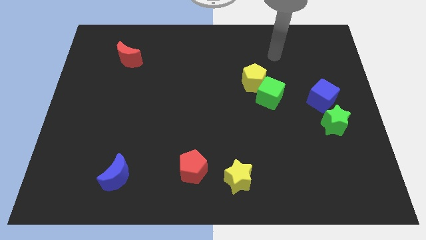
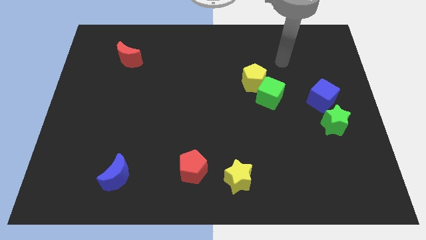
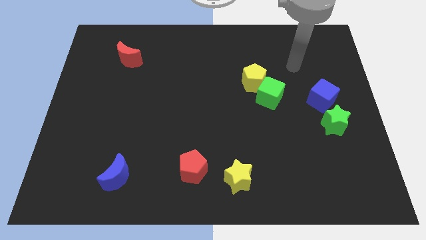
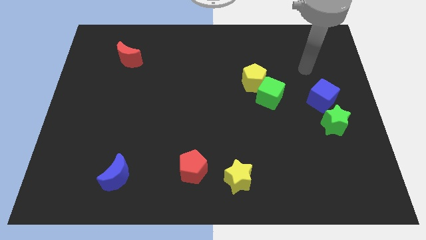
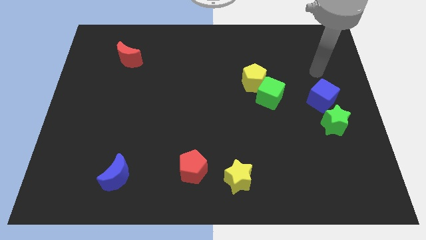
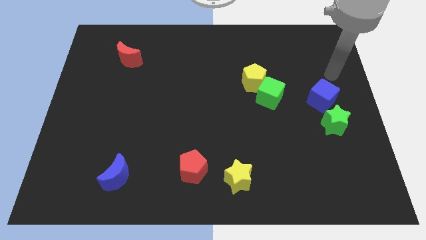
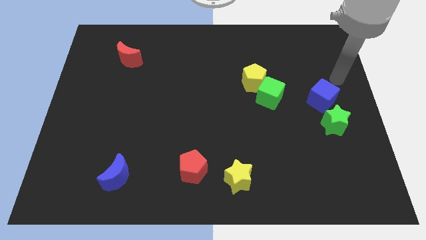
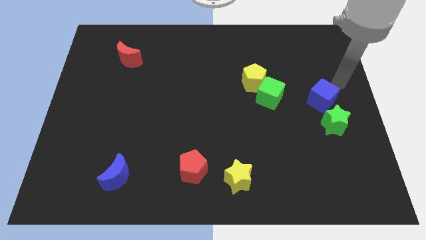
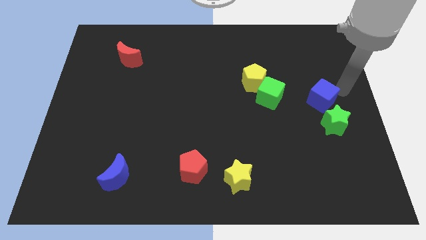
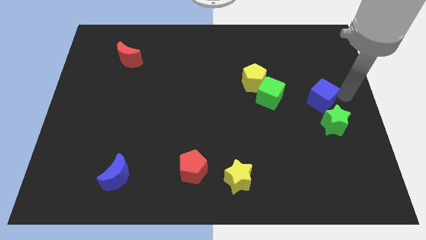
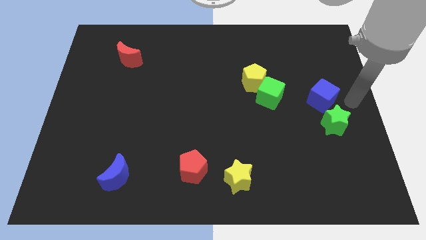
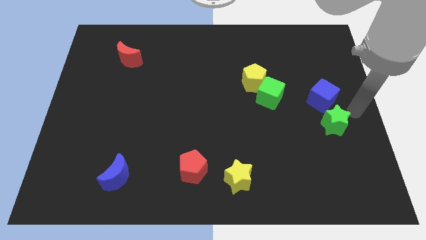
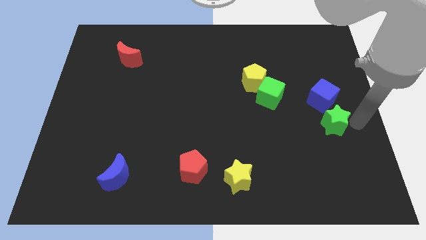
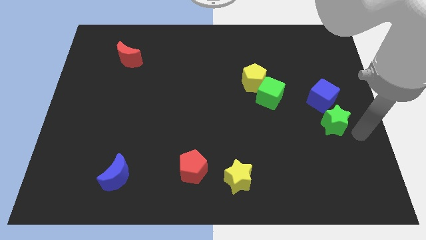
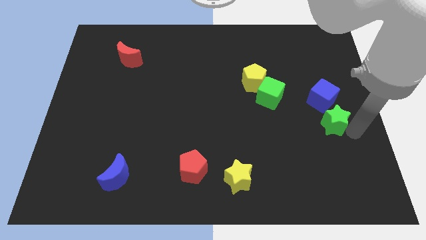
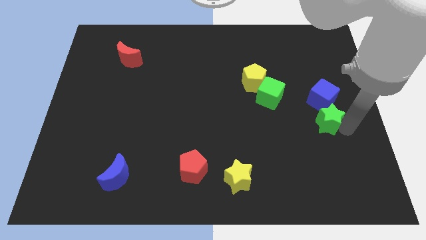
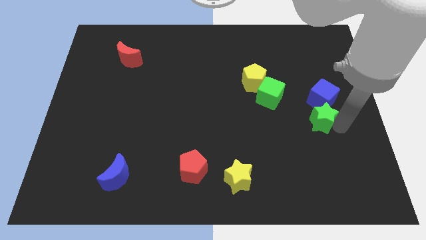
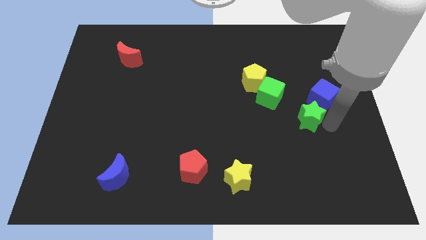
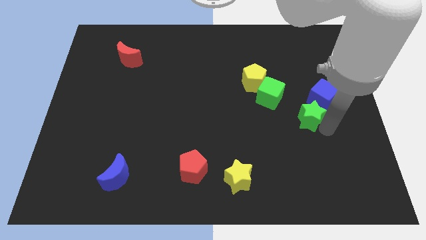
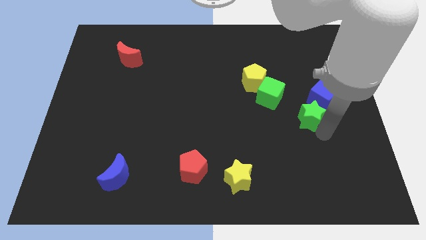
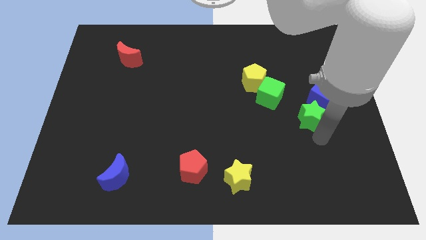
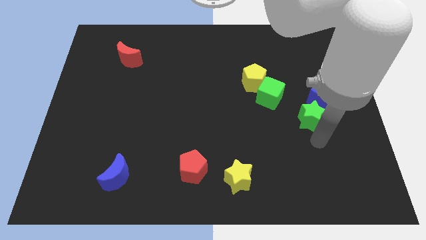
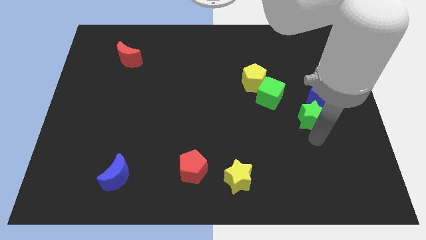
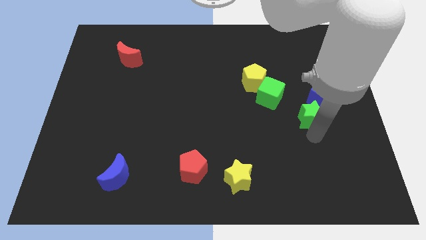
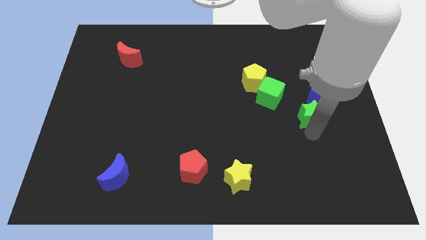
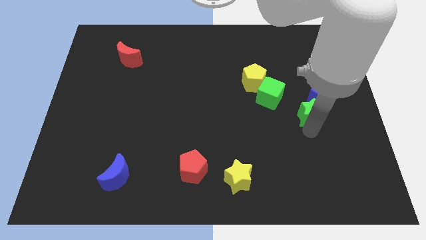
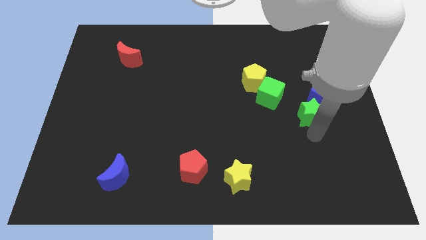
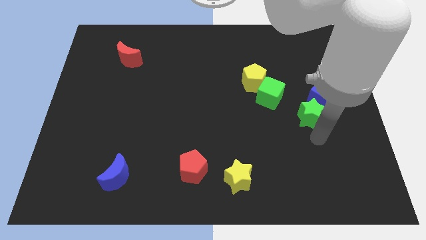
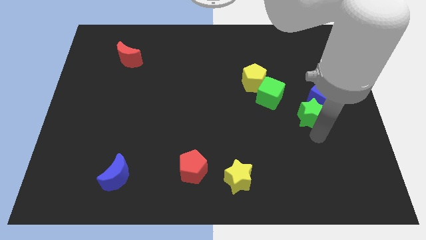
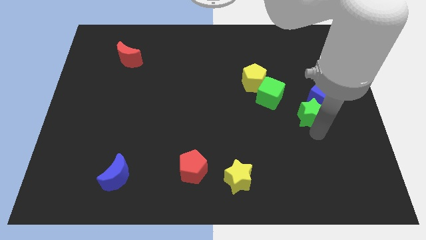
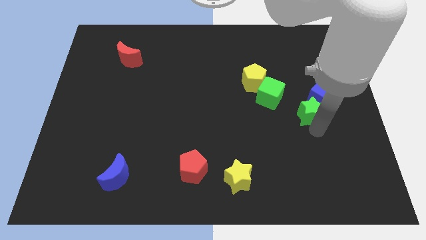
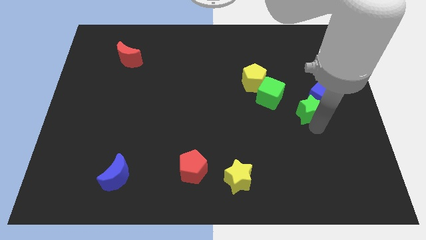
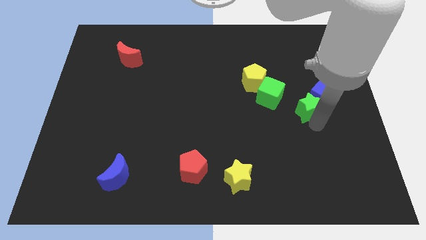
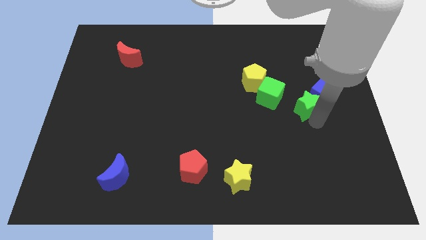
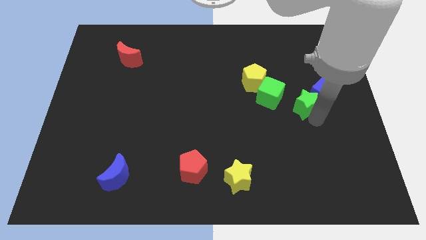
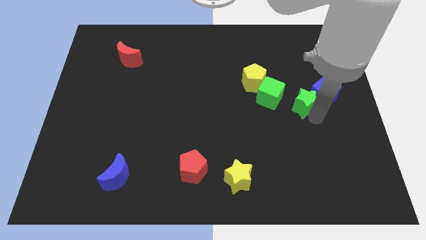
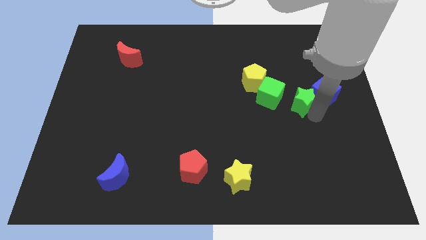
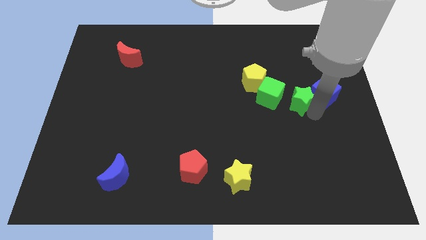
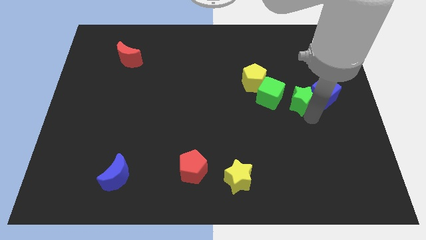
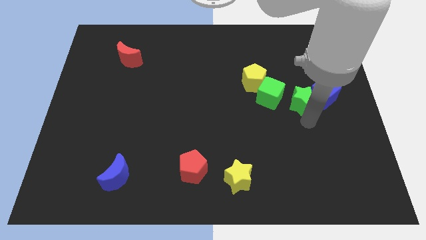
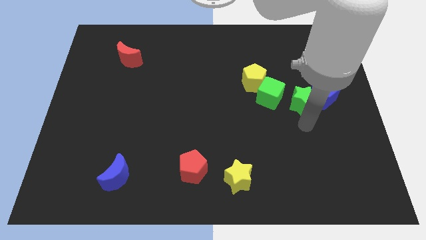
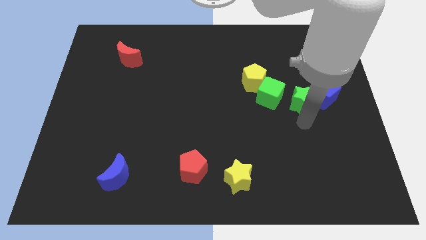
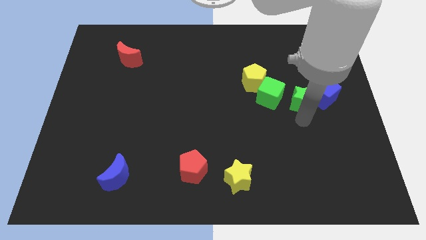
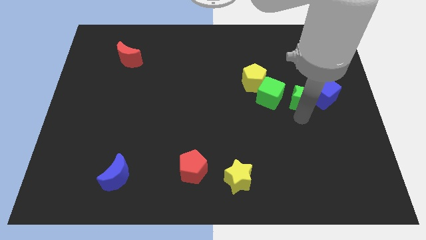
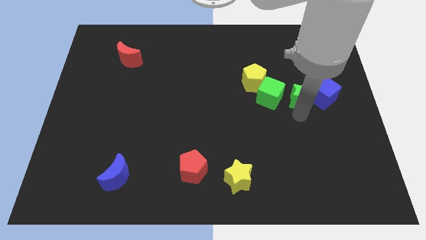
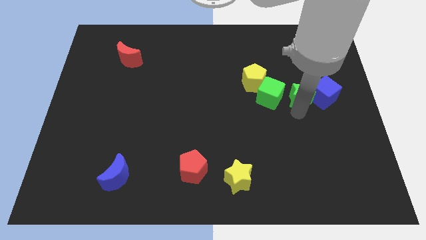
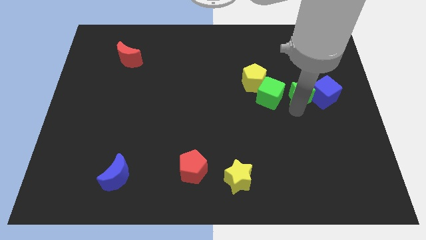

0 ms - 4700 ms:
put the green star to the right side of the yellow pentagon

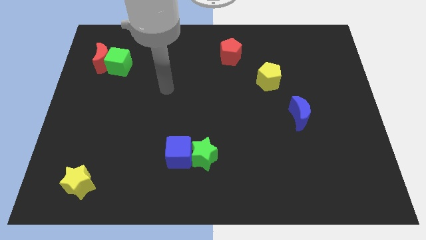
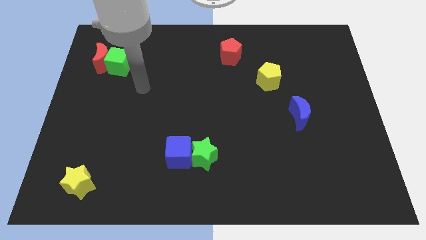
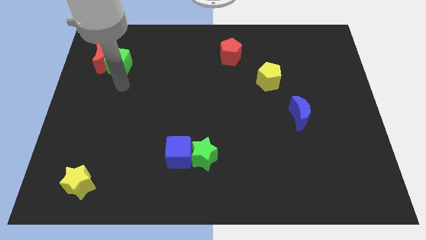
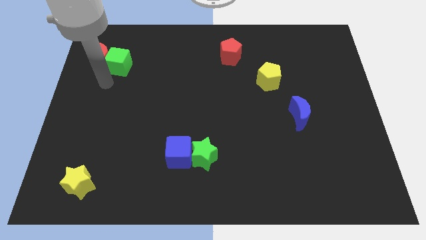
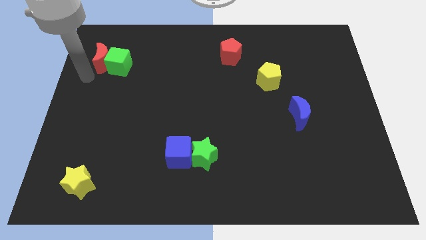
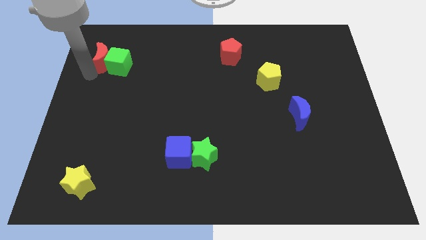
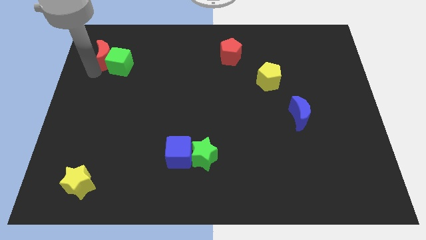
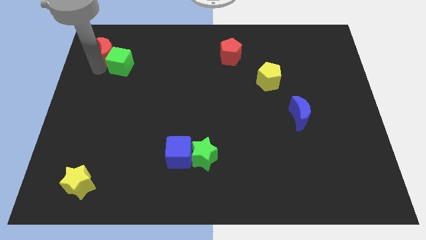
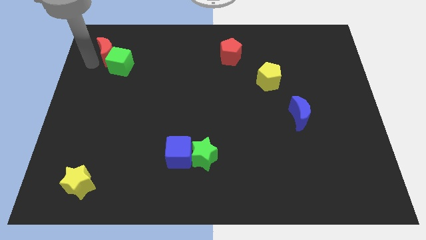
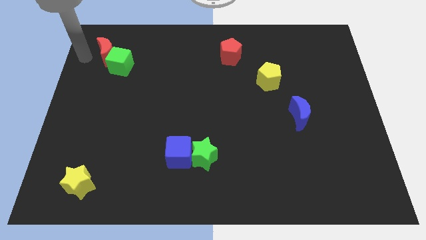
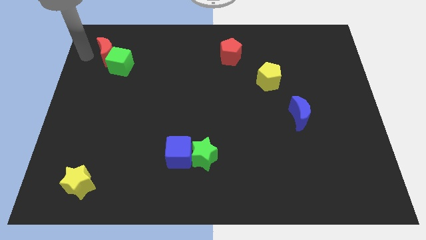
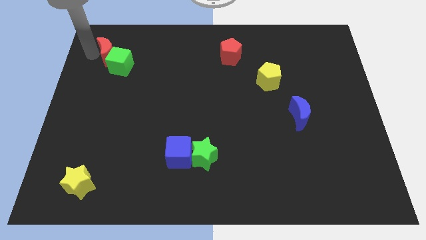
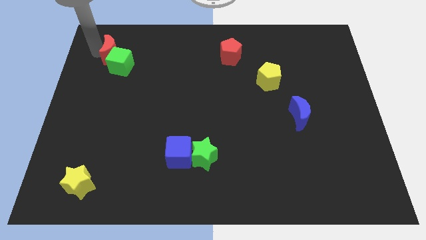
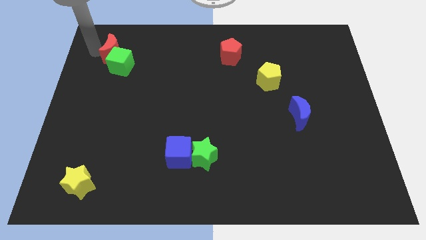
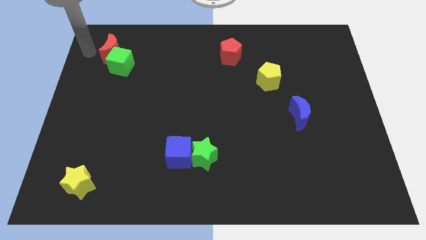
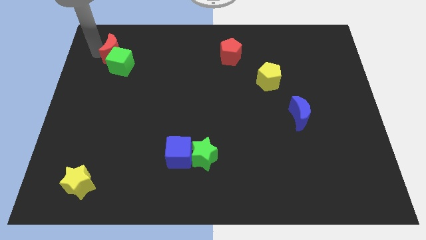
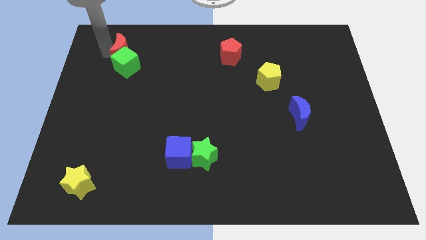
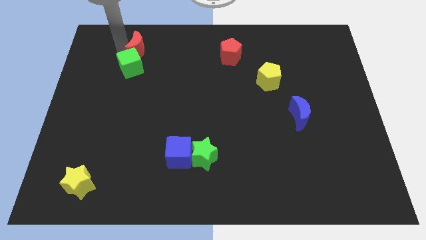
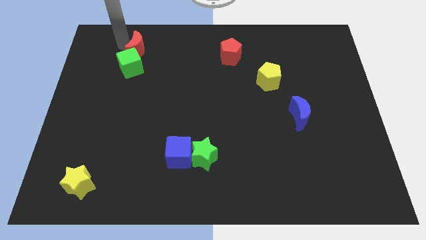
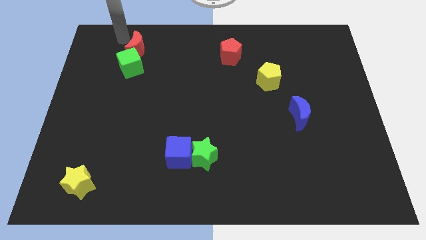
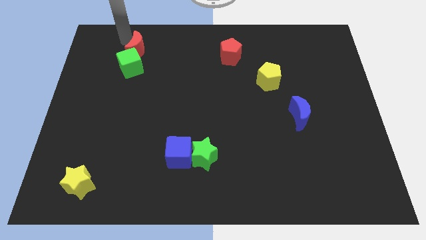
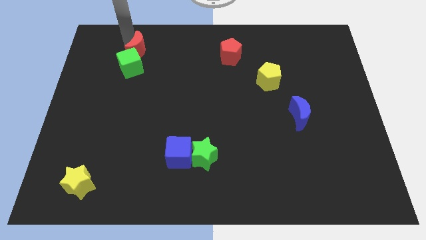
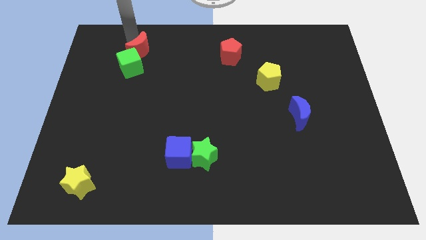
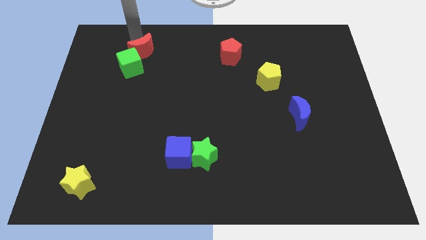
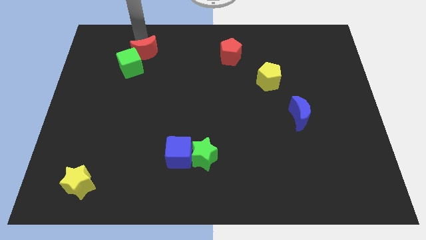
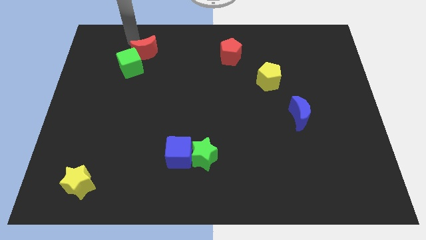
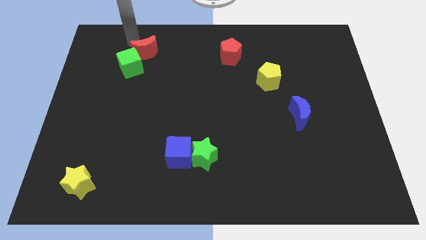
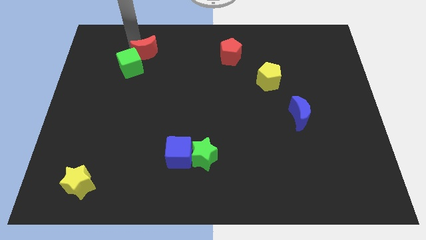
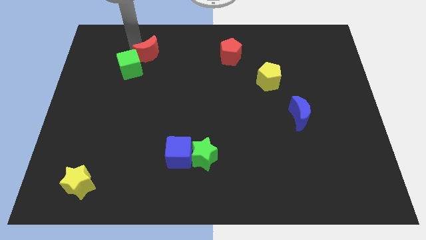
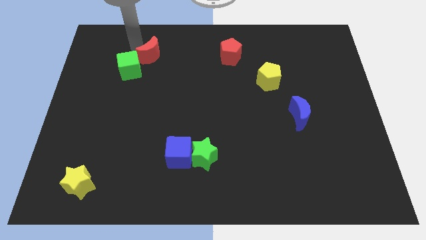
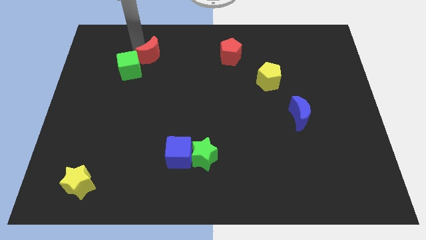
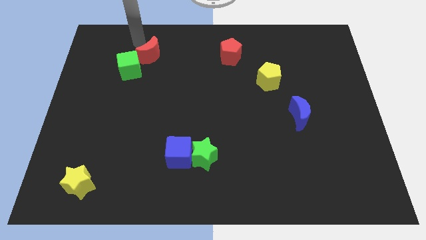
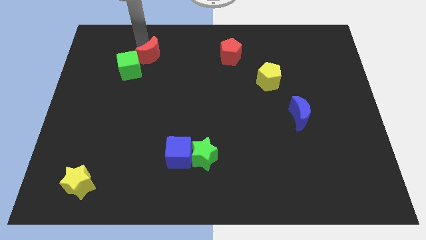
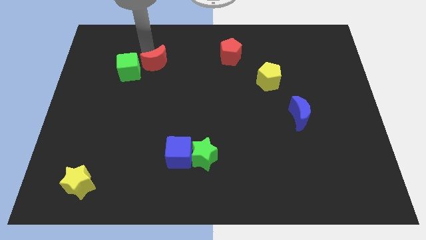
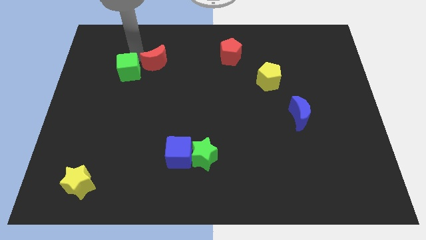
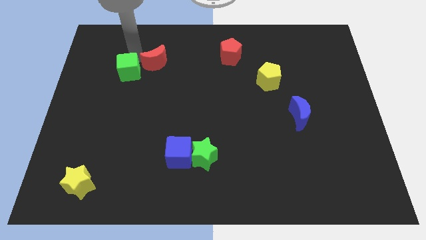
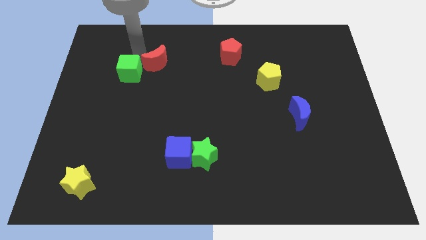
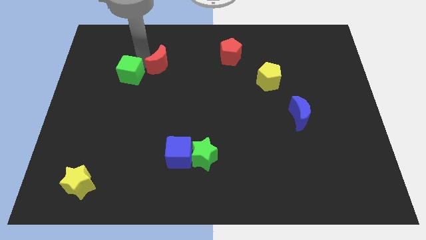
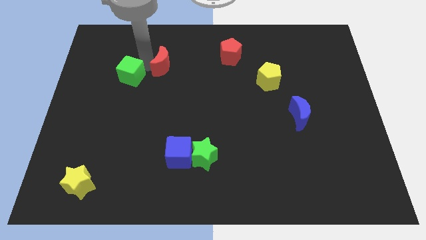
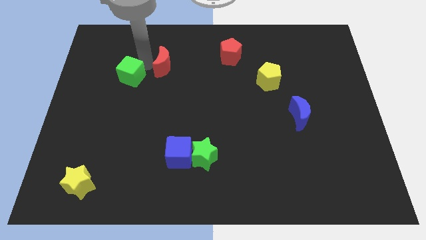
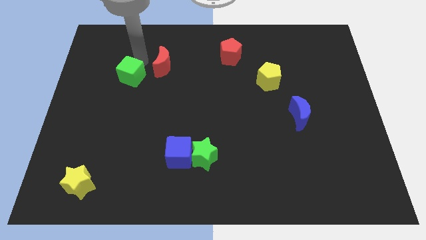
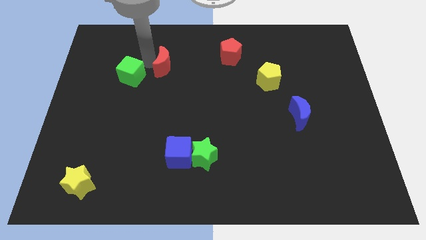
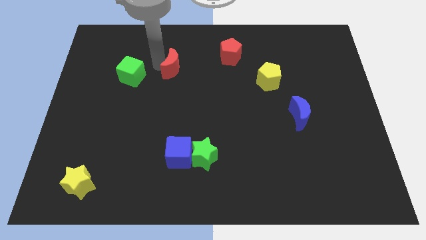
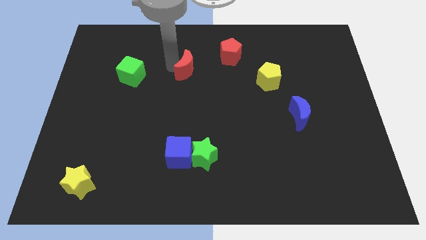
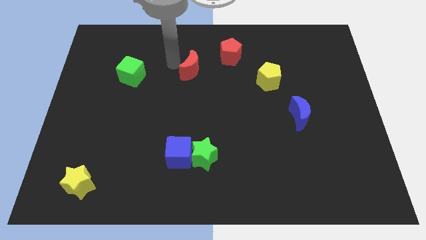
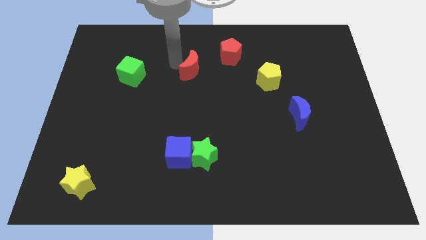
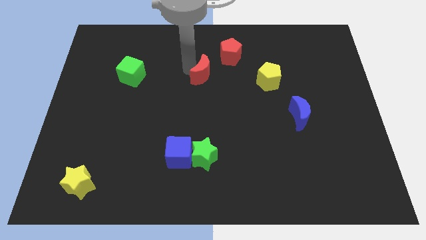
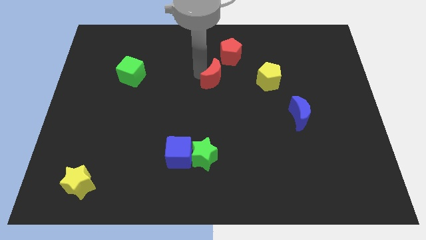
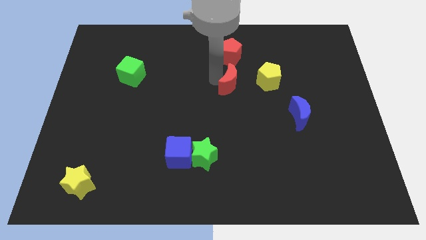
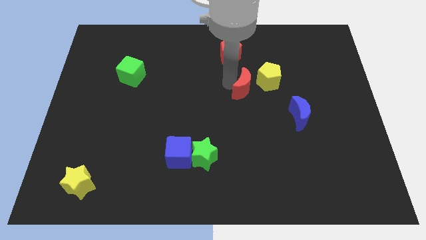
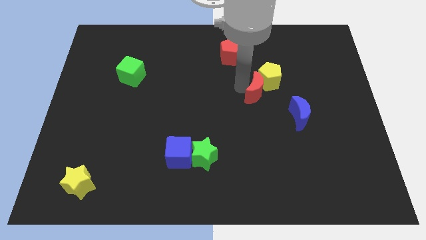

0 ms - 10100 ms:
slide the red moon to the top left side of the blue moon
